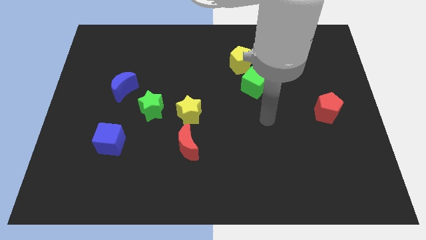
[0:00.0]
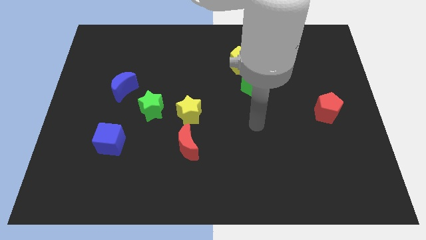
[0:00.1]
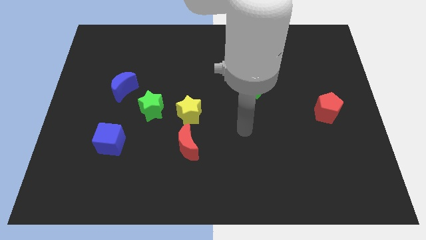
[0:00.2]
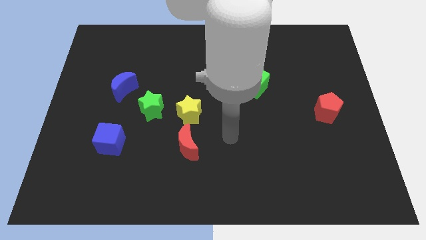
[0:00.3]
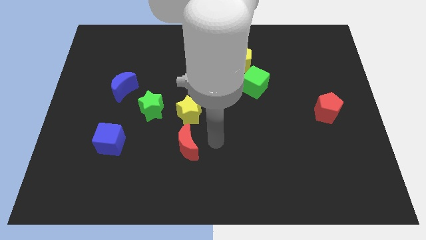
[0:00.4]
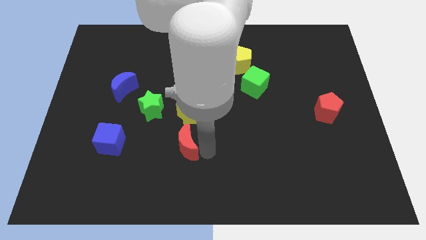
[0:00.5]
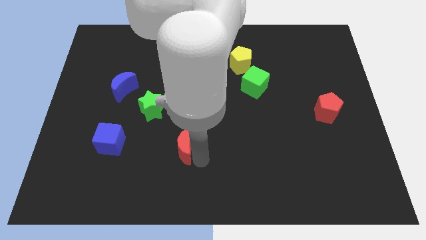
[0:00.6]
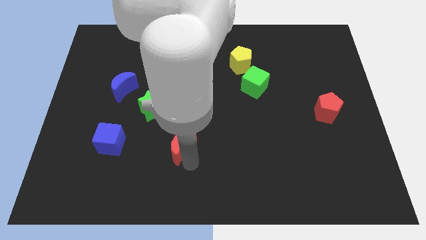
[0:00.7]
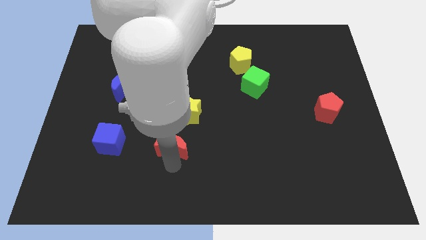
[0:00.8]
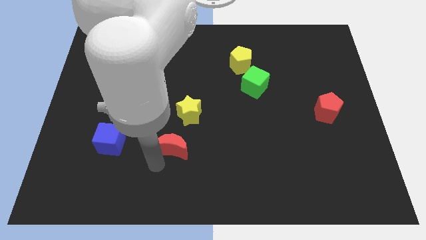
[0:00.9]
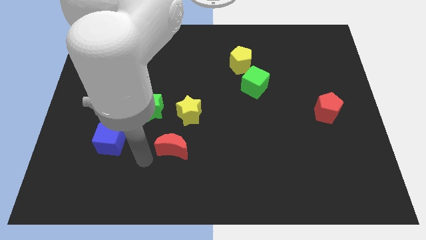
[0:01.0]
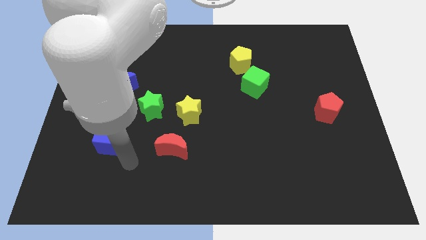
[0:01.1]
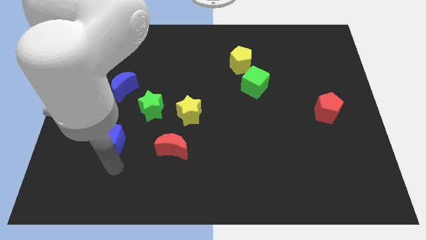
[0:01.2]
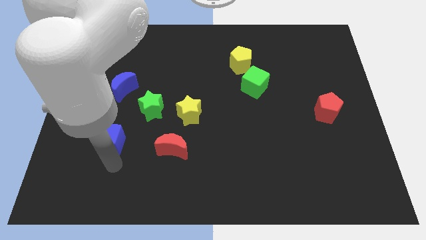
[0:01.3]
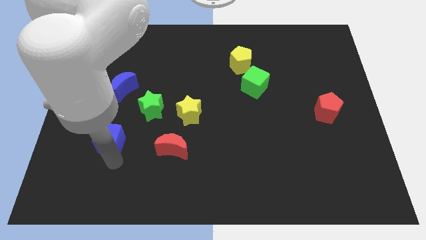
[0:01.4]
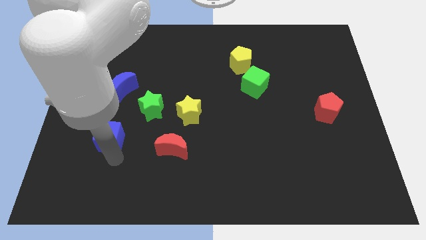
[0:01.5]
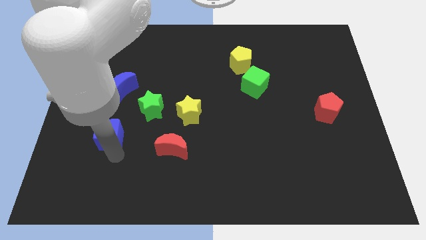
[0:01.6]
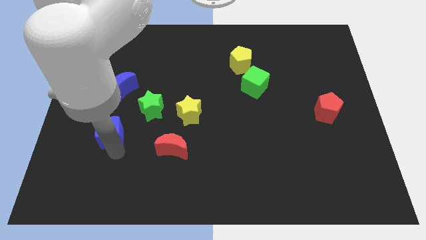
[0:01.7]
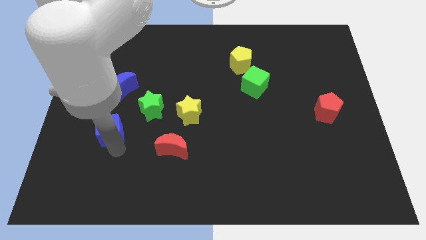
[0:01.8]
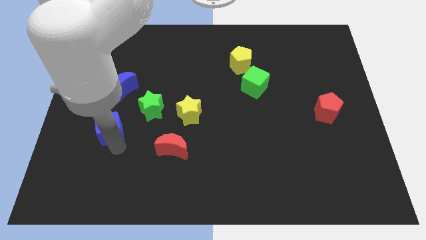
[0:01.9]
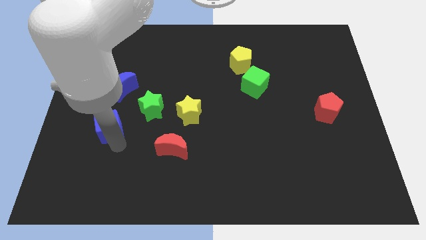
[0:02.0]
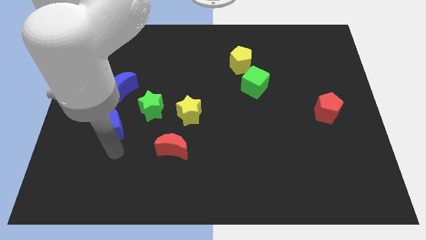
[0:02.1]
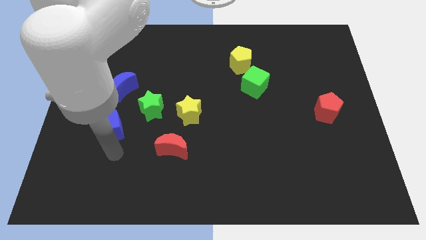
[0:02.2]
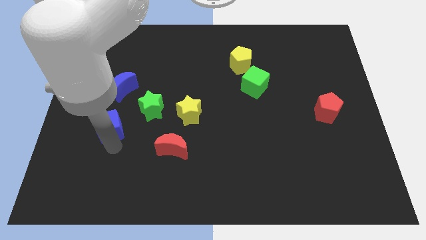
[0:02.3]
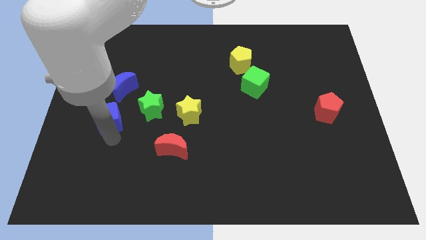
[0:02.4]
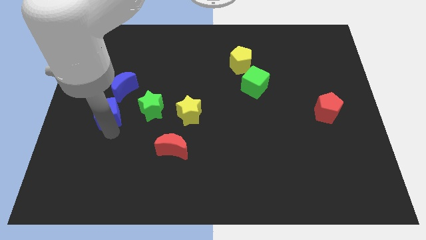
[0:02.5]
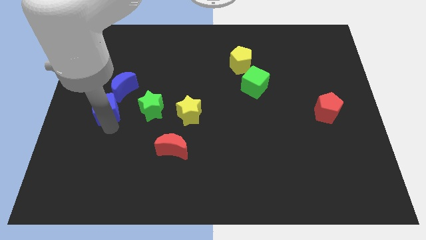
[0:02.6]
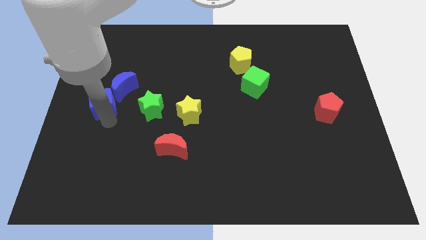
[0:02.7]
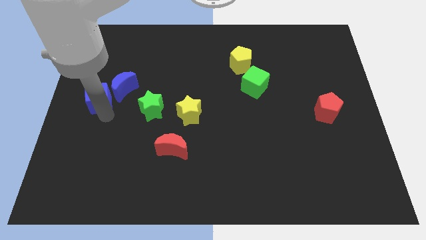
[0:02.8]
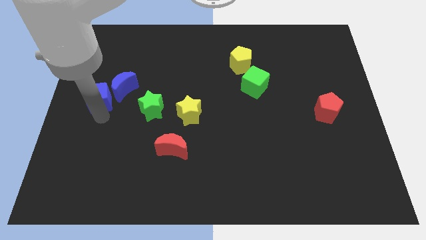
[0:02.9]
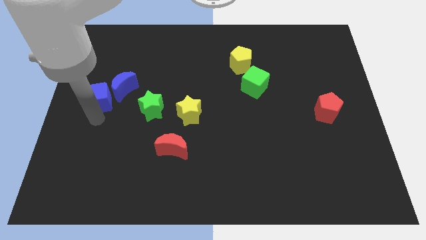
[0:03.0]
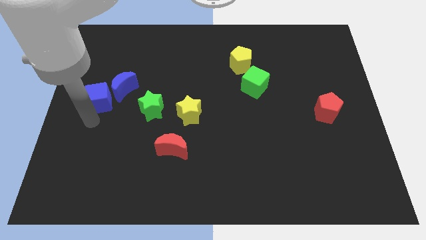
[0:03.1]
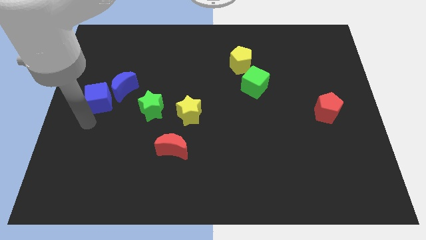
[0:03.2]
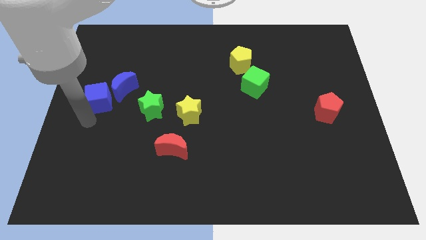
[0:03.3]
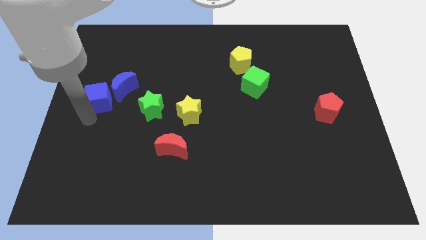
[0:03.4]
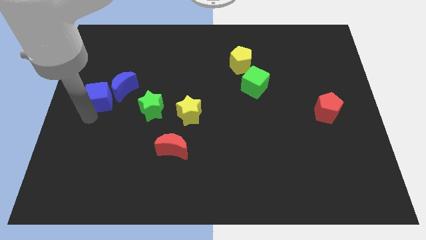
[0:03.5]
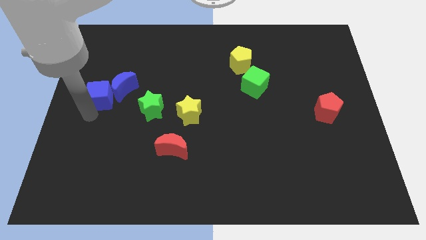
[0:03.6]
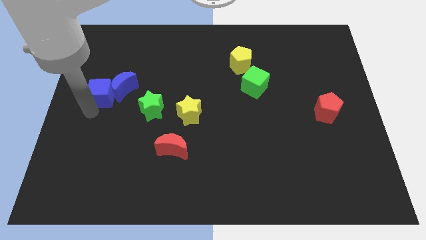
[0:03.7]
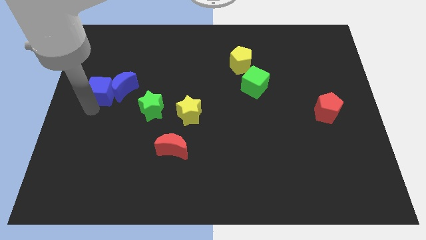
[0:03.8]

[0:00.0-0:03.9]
put the blue cube diagonally up and to the left of the blue moon

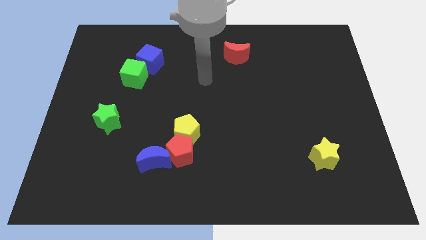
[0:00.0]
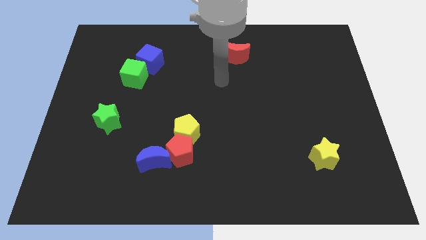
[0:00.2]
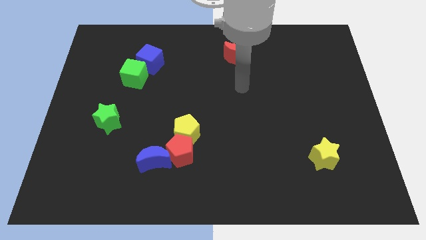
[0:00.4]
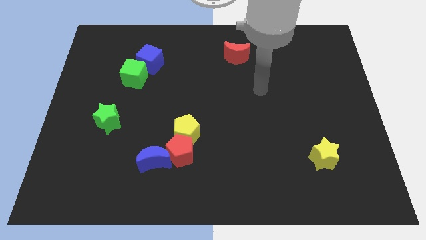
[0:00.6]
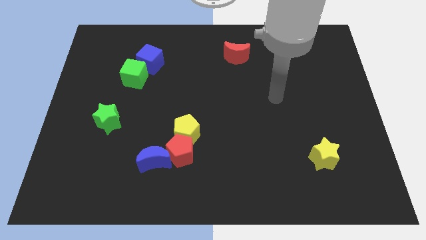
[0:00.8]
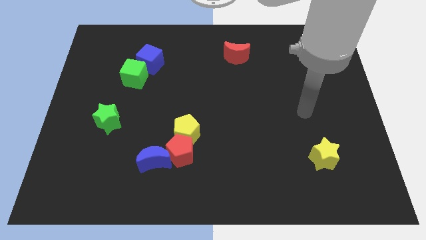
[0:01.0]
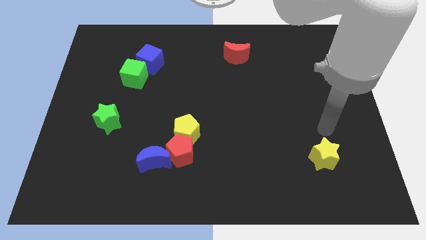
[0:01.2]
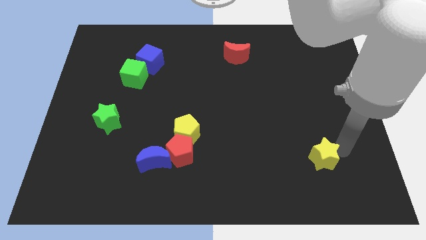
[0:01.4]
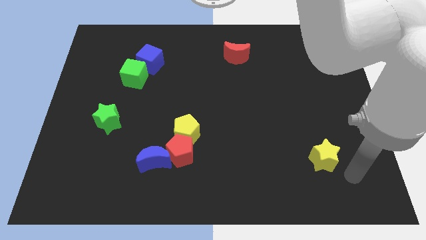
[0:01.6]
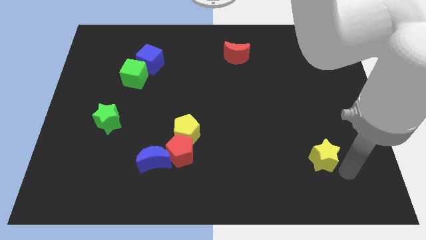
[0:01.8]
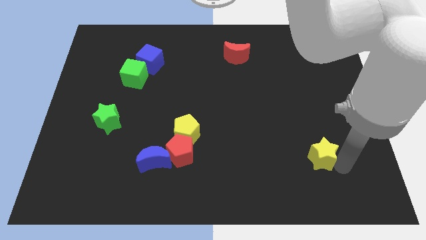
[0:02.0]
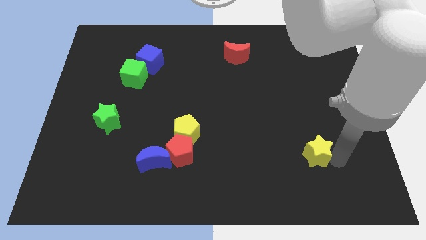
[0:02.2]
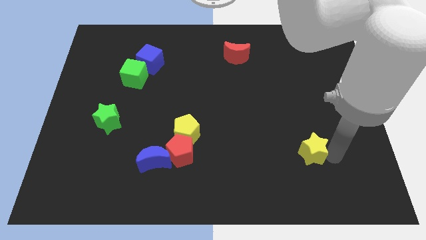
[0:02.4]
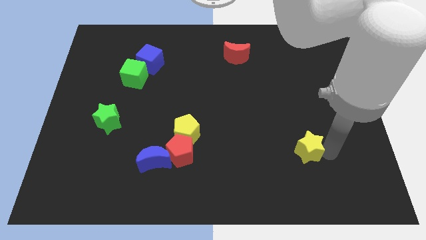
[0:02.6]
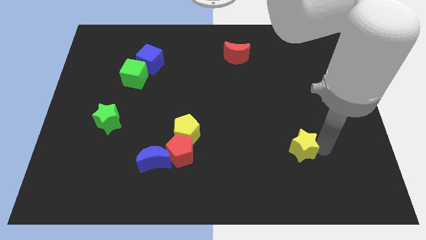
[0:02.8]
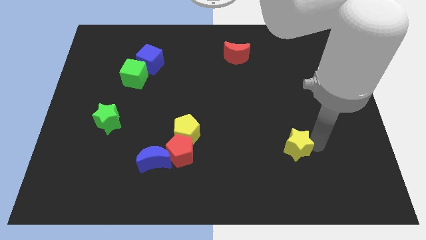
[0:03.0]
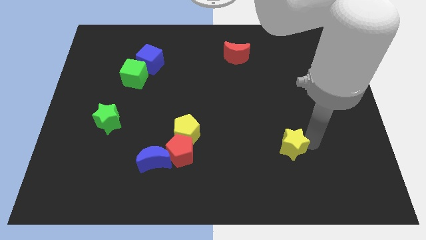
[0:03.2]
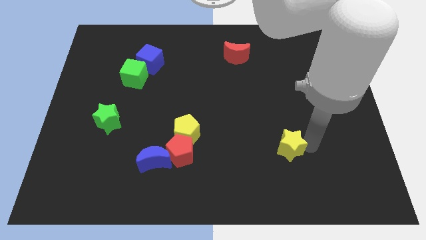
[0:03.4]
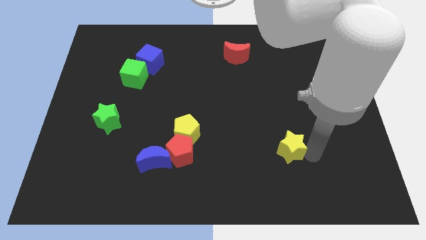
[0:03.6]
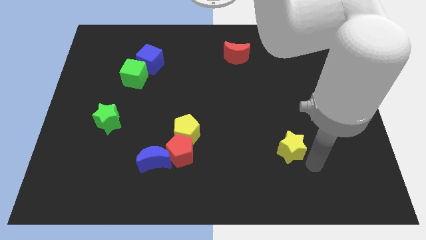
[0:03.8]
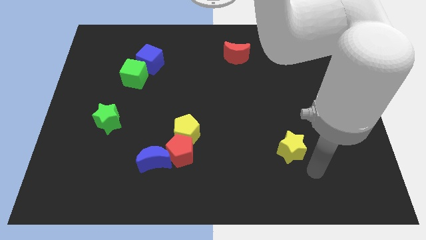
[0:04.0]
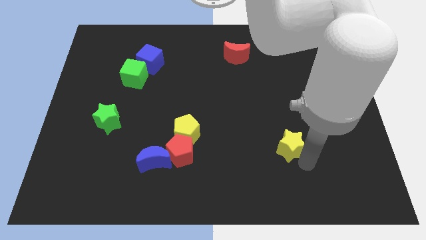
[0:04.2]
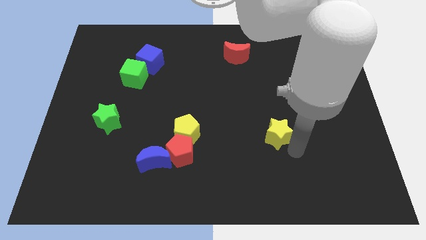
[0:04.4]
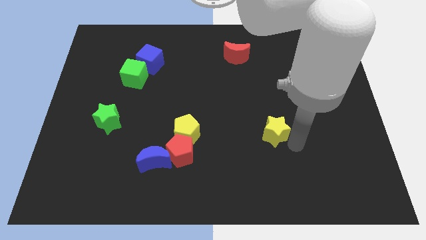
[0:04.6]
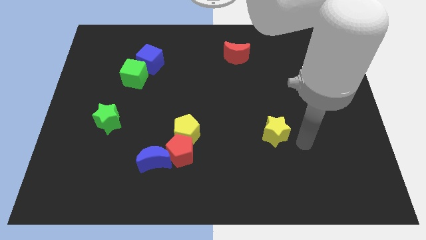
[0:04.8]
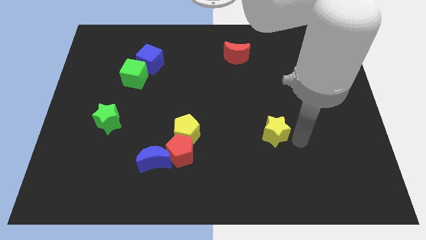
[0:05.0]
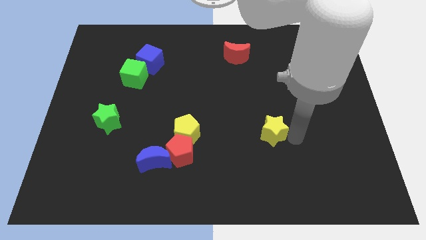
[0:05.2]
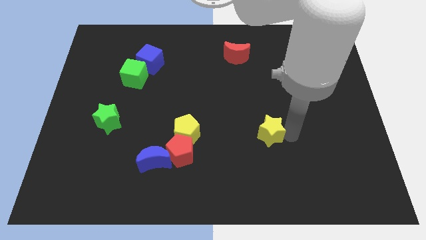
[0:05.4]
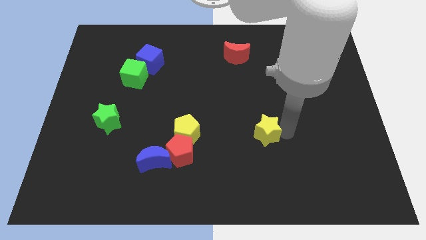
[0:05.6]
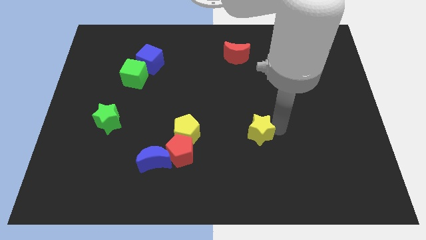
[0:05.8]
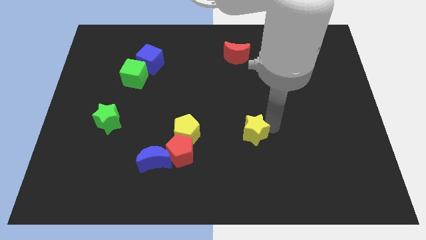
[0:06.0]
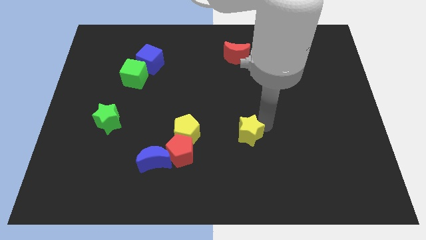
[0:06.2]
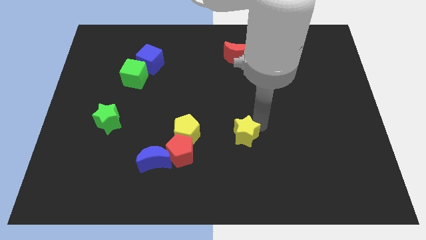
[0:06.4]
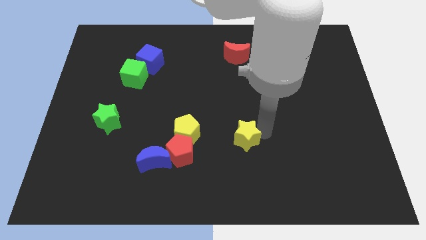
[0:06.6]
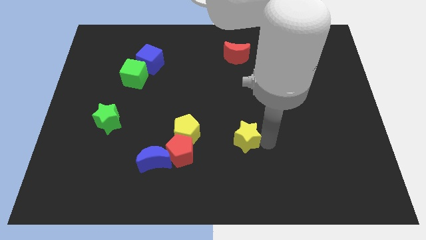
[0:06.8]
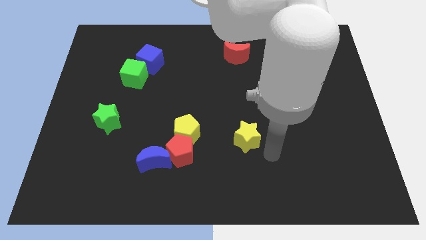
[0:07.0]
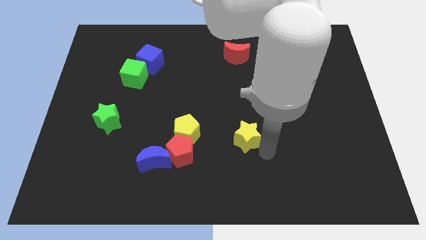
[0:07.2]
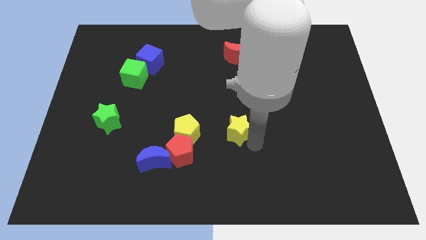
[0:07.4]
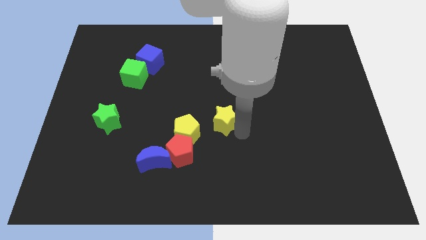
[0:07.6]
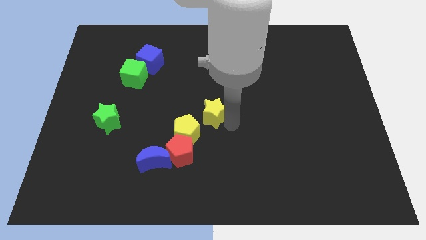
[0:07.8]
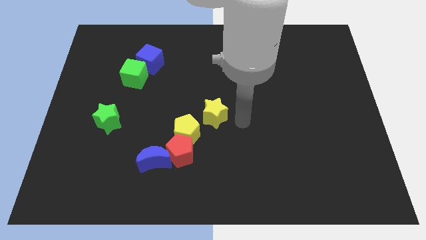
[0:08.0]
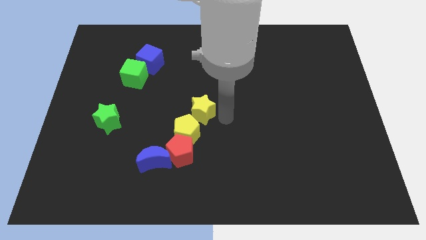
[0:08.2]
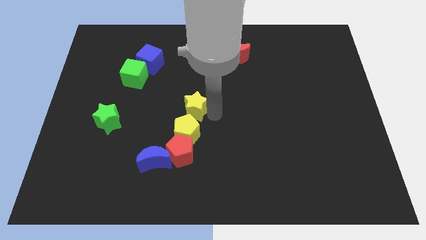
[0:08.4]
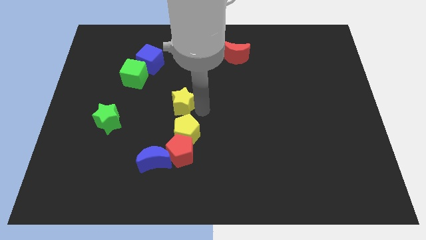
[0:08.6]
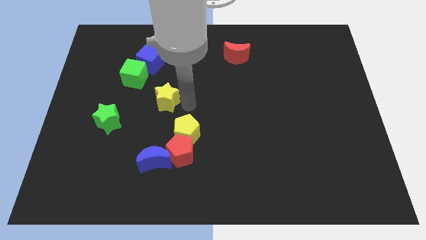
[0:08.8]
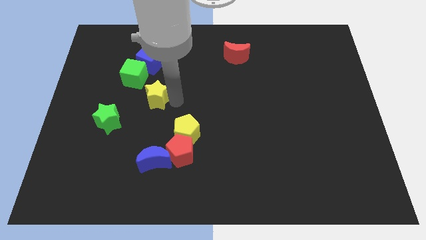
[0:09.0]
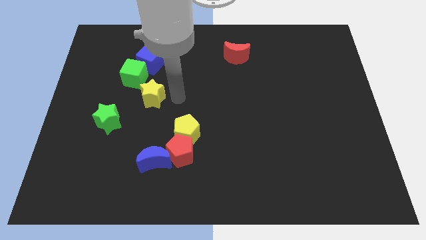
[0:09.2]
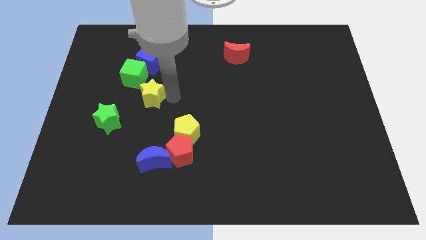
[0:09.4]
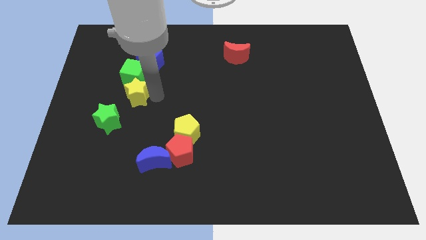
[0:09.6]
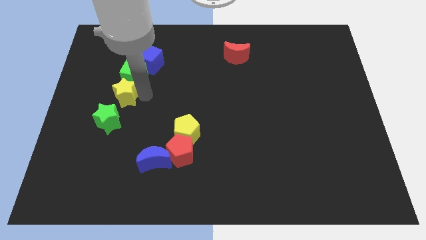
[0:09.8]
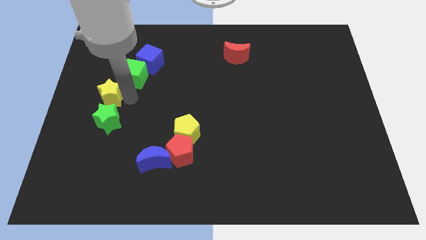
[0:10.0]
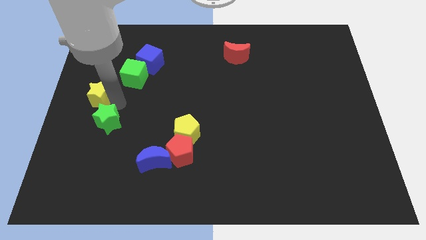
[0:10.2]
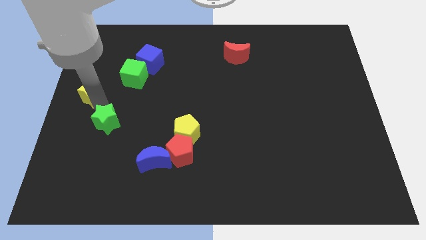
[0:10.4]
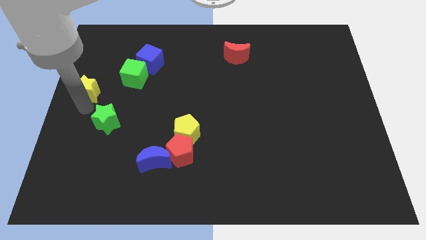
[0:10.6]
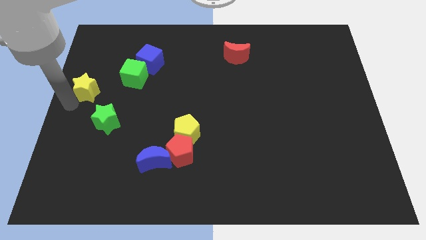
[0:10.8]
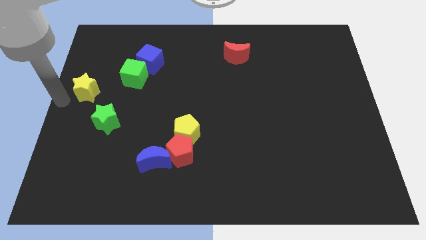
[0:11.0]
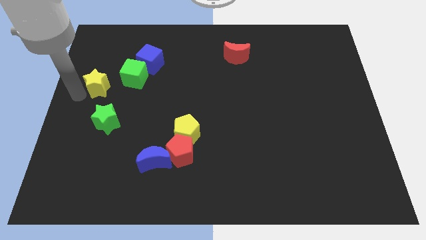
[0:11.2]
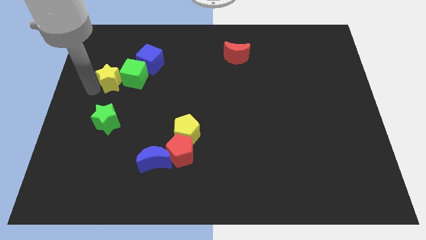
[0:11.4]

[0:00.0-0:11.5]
put the yellow star to the bottom left side of the blue cube
